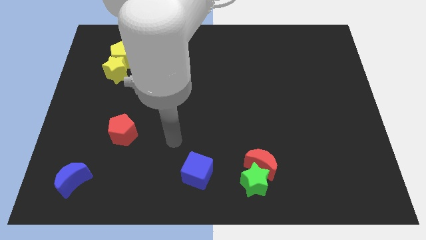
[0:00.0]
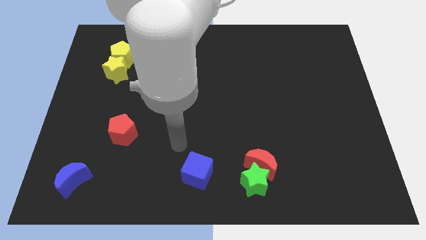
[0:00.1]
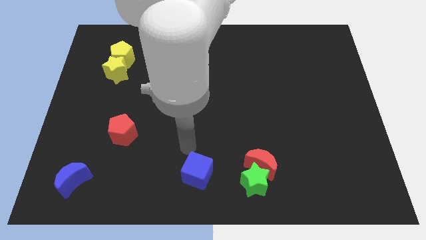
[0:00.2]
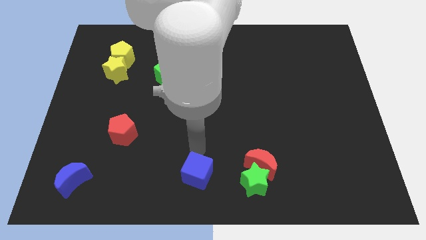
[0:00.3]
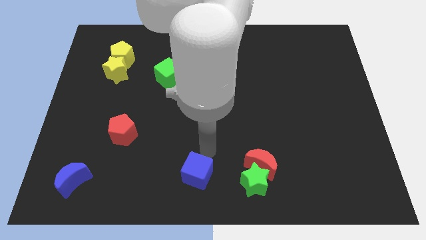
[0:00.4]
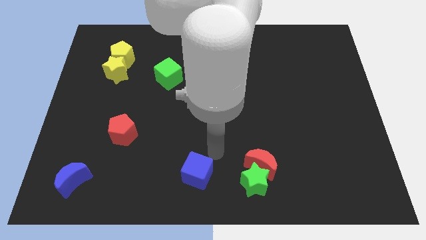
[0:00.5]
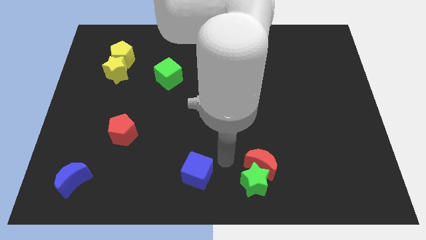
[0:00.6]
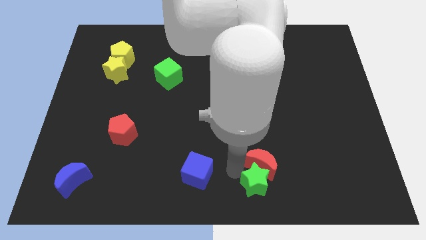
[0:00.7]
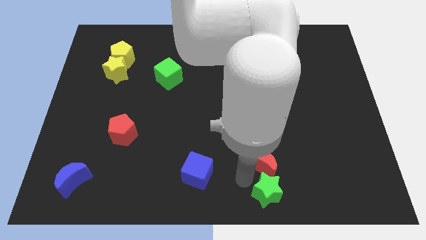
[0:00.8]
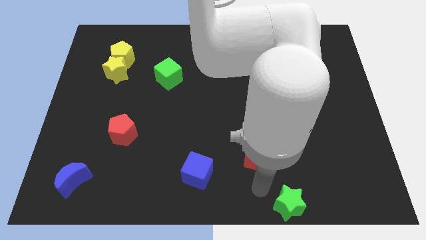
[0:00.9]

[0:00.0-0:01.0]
pull the red moon apart from the green star

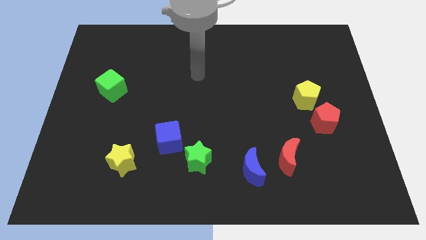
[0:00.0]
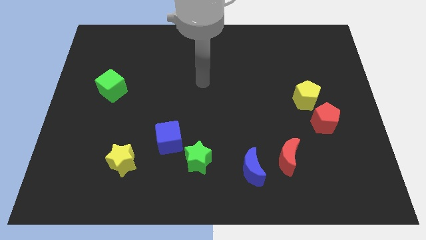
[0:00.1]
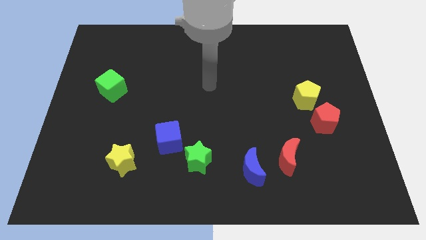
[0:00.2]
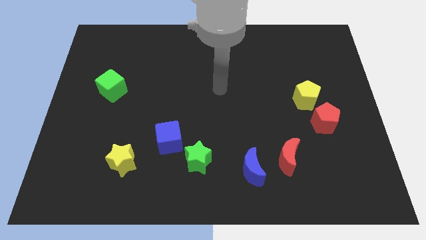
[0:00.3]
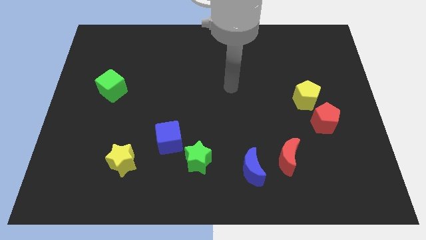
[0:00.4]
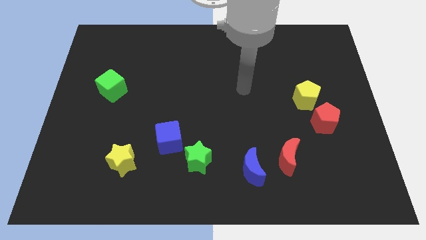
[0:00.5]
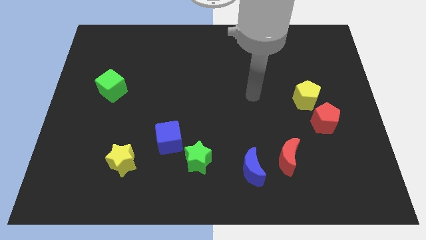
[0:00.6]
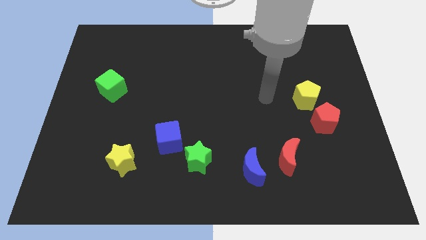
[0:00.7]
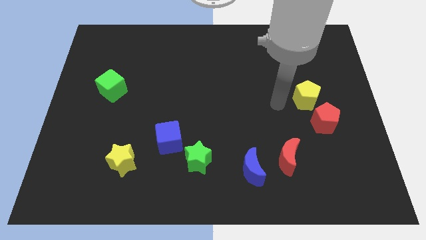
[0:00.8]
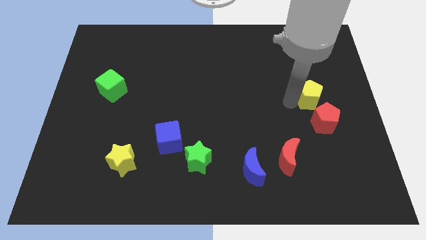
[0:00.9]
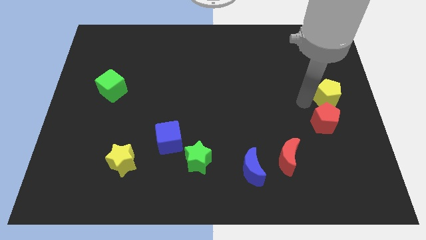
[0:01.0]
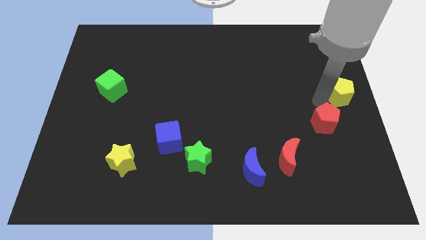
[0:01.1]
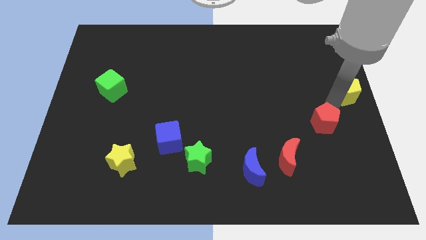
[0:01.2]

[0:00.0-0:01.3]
pull the red pentagon apart from the yellow pentagon

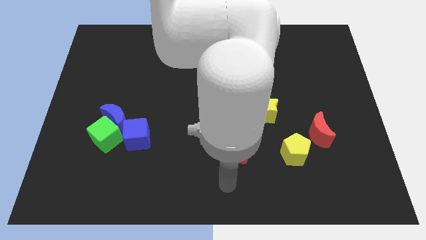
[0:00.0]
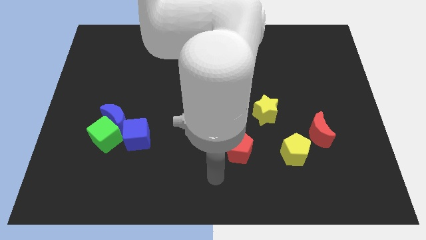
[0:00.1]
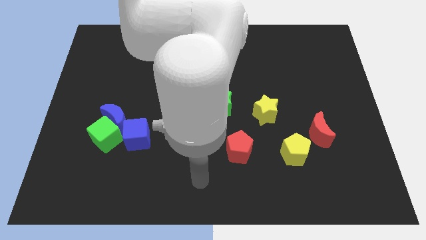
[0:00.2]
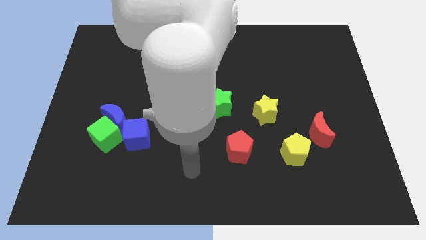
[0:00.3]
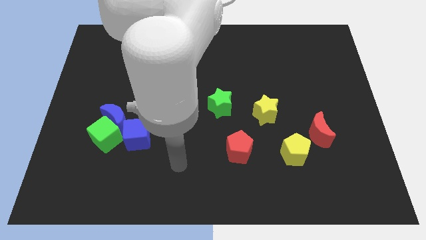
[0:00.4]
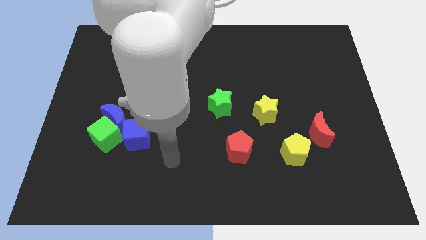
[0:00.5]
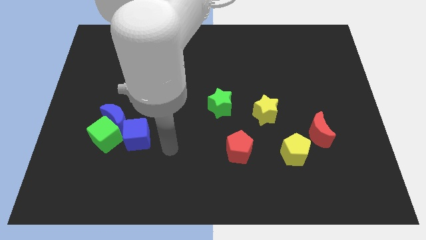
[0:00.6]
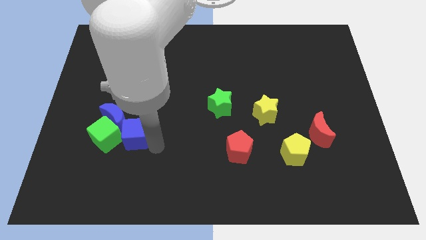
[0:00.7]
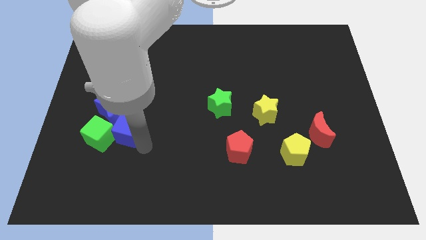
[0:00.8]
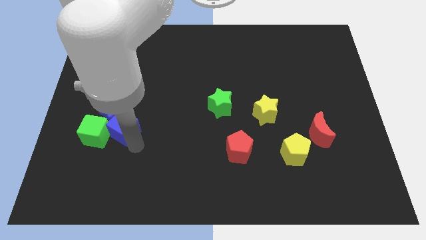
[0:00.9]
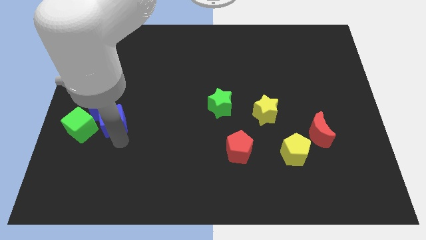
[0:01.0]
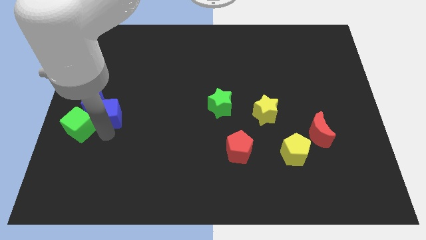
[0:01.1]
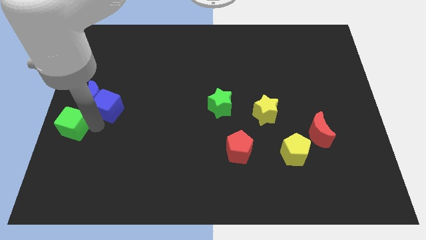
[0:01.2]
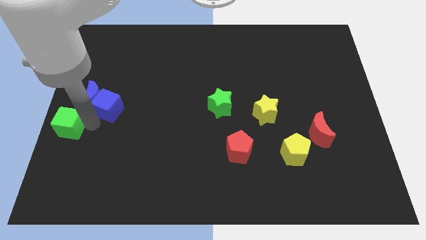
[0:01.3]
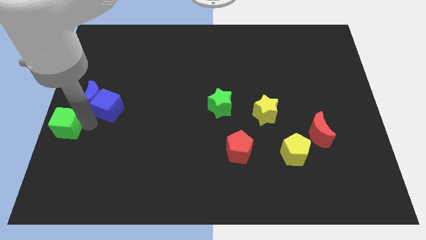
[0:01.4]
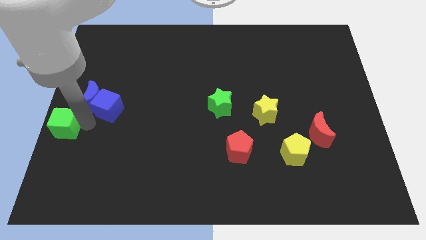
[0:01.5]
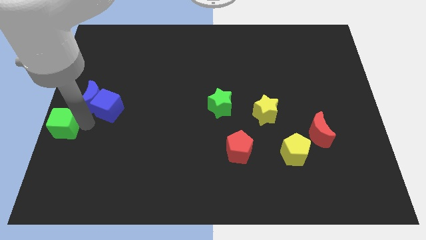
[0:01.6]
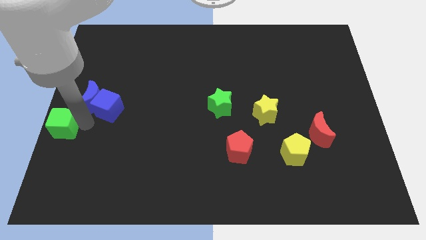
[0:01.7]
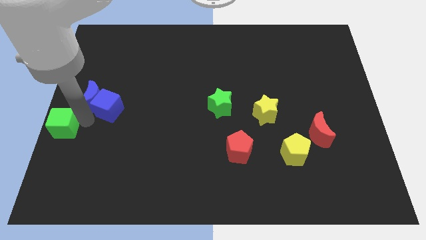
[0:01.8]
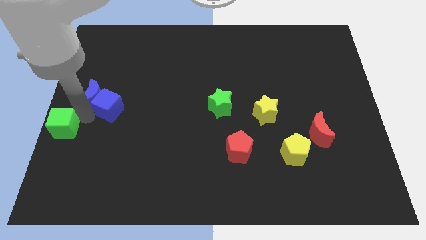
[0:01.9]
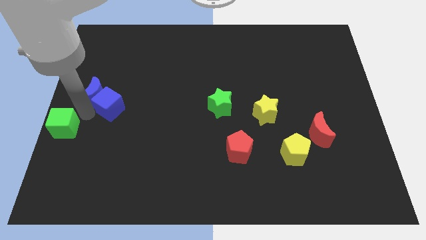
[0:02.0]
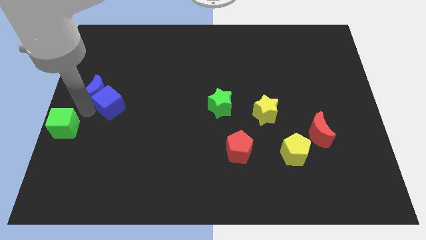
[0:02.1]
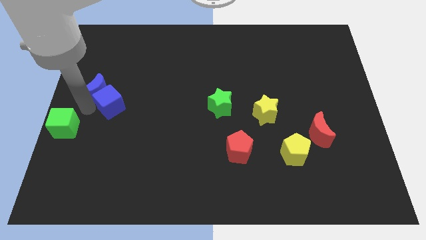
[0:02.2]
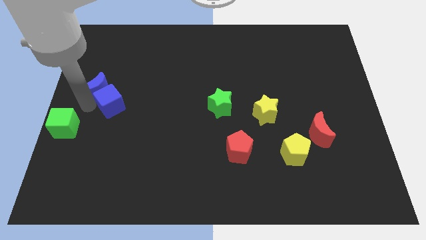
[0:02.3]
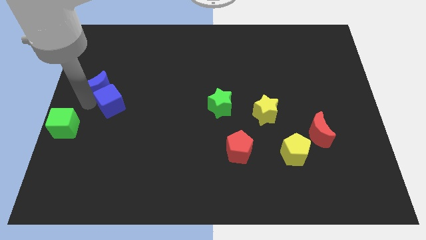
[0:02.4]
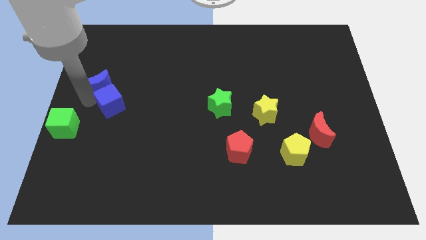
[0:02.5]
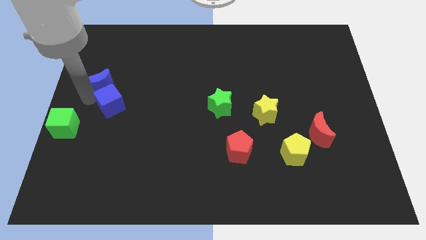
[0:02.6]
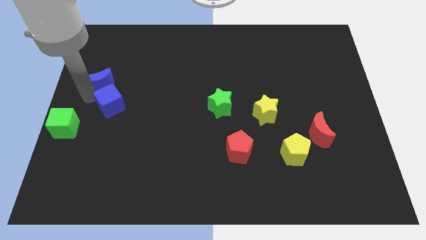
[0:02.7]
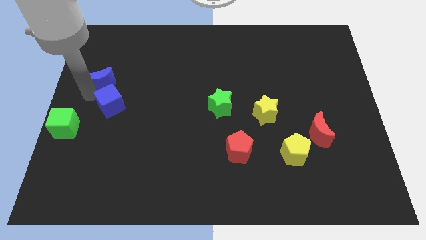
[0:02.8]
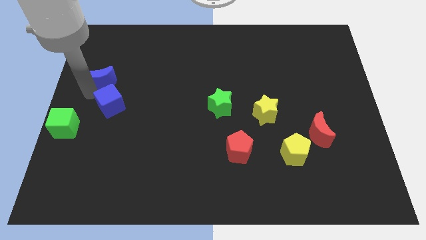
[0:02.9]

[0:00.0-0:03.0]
separate the blue moon from the green cube and blue cube

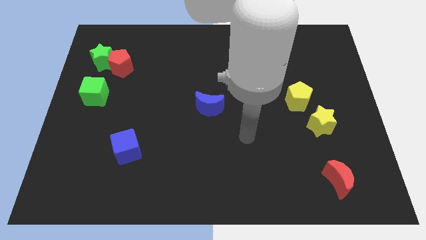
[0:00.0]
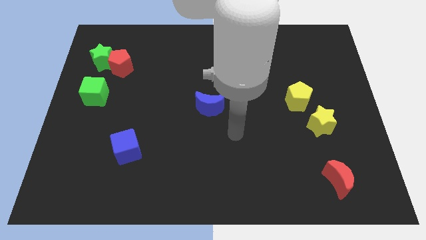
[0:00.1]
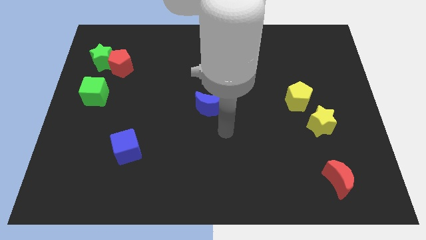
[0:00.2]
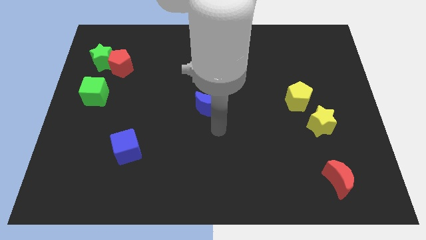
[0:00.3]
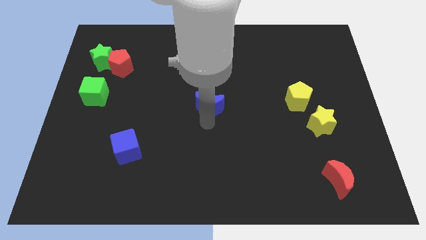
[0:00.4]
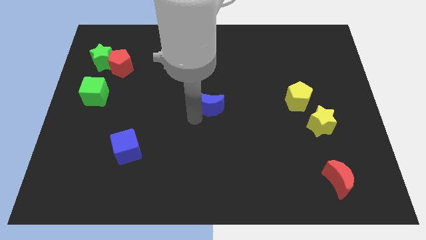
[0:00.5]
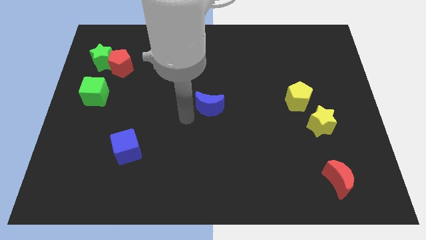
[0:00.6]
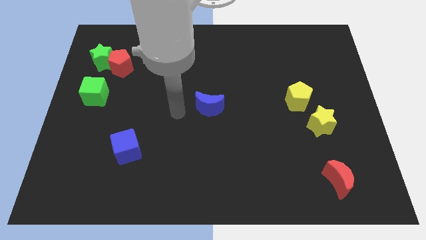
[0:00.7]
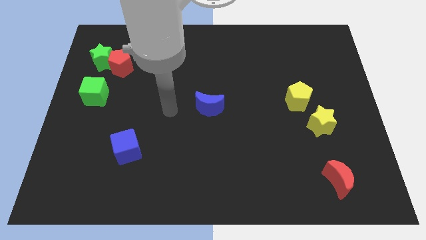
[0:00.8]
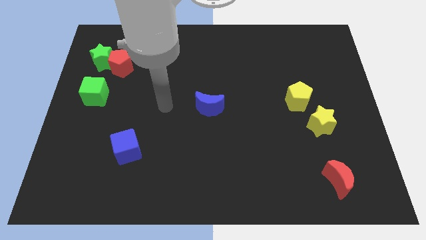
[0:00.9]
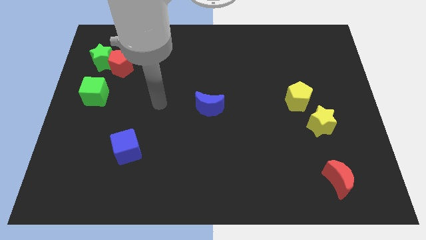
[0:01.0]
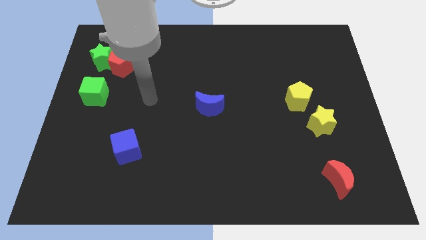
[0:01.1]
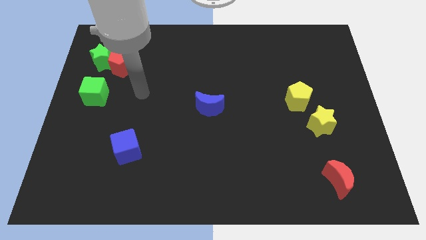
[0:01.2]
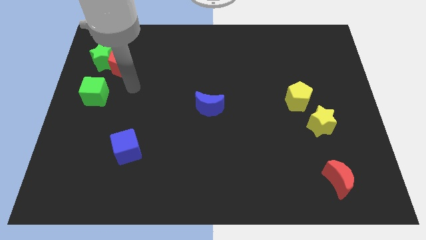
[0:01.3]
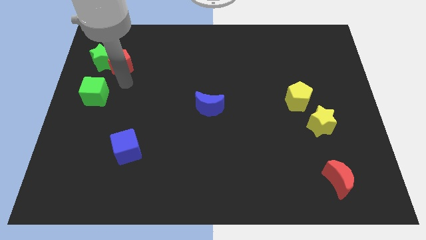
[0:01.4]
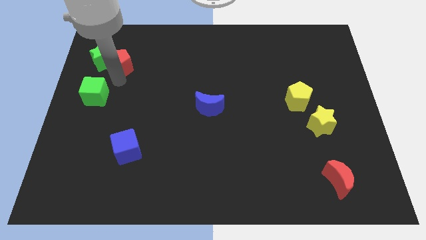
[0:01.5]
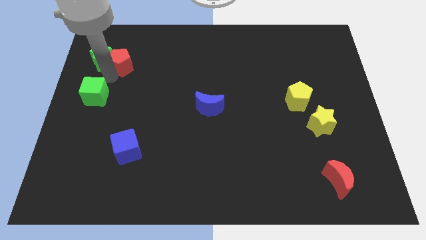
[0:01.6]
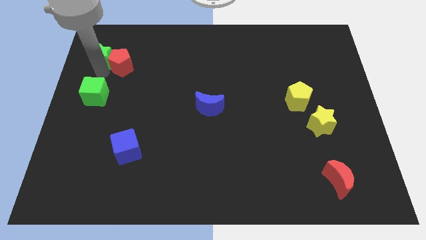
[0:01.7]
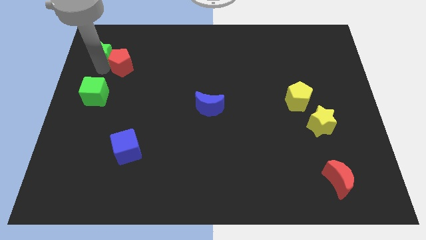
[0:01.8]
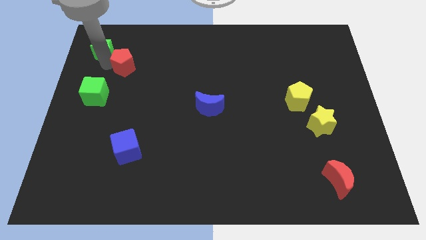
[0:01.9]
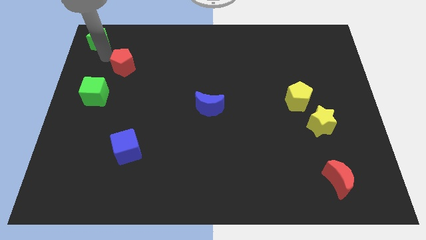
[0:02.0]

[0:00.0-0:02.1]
pull the red pentagon apart from the green star

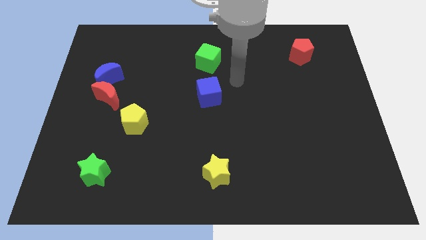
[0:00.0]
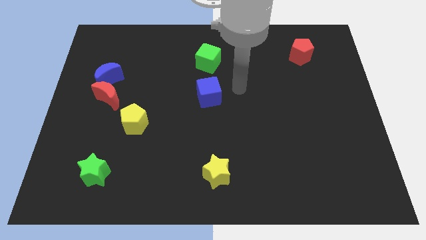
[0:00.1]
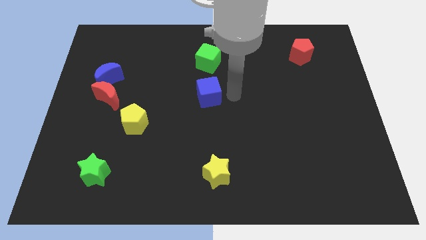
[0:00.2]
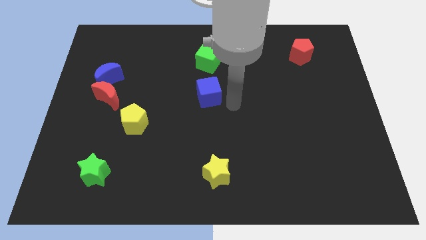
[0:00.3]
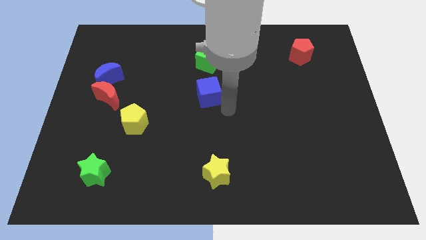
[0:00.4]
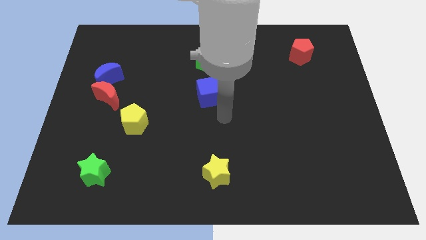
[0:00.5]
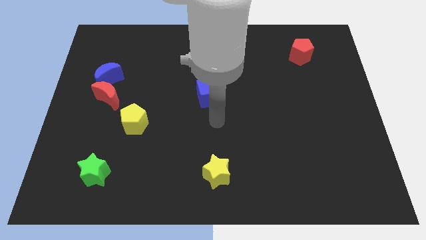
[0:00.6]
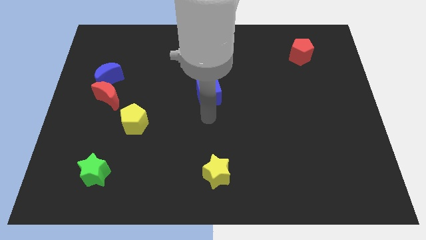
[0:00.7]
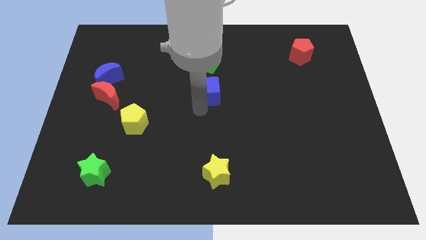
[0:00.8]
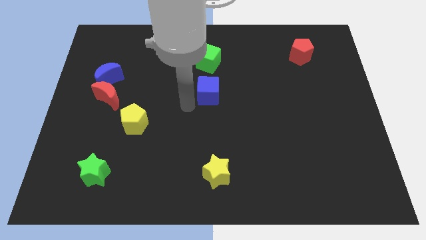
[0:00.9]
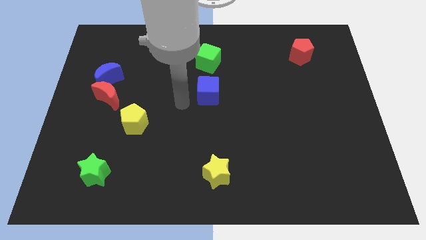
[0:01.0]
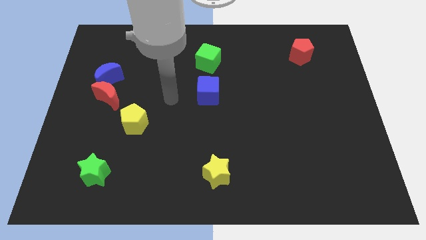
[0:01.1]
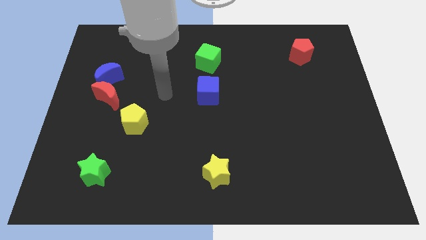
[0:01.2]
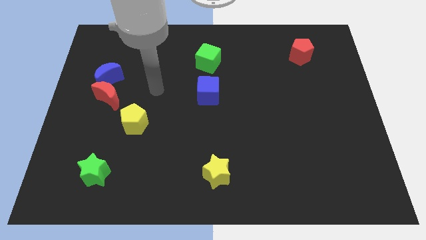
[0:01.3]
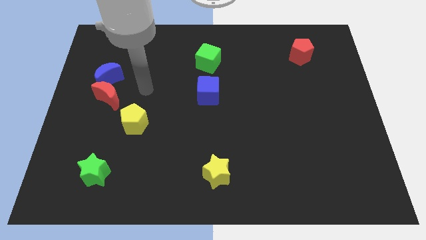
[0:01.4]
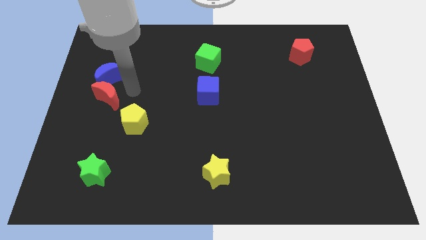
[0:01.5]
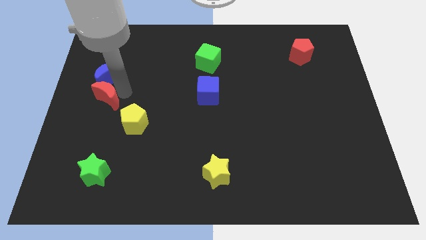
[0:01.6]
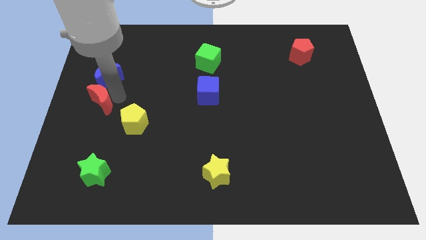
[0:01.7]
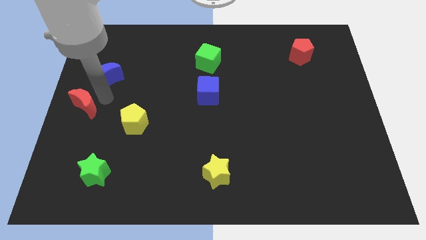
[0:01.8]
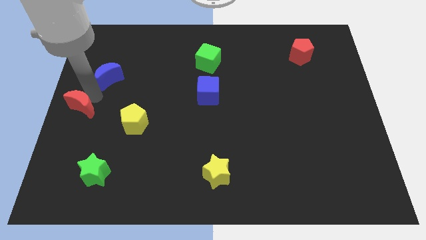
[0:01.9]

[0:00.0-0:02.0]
move the blue moon away from the red moon
